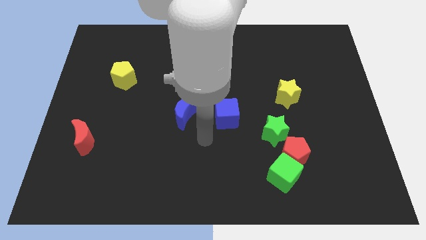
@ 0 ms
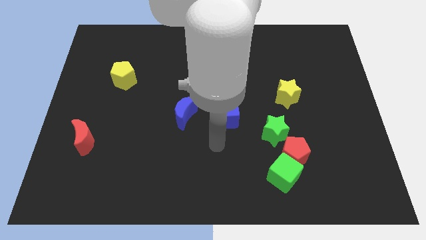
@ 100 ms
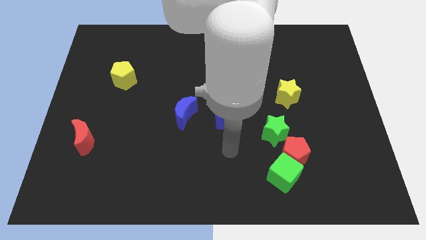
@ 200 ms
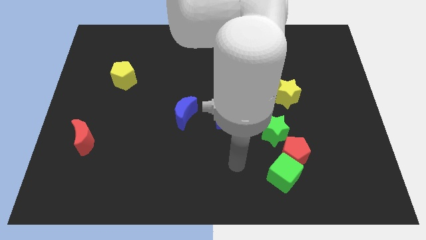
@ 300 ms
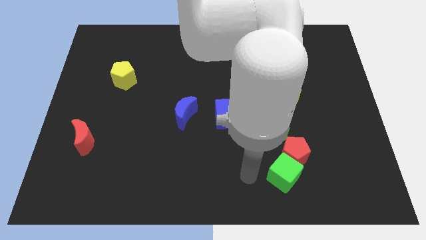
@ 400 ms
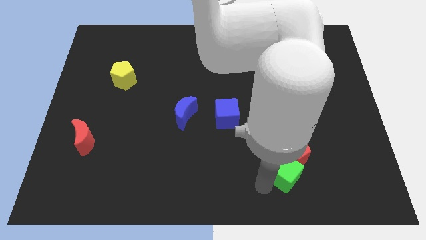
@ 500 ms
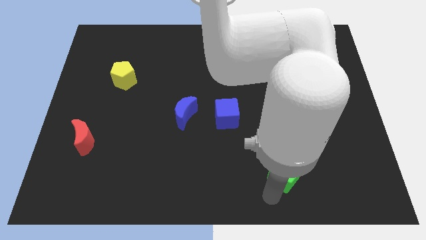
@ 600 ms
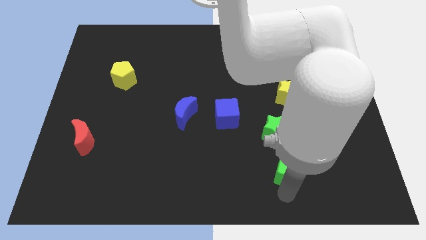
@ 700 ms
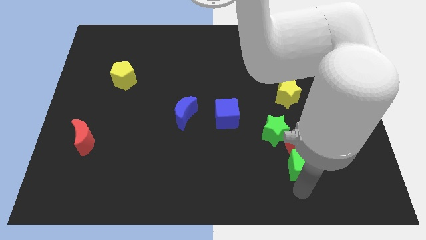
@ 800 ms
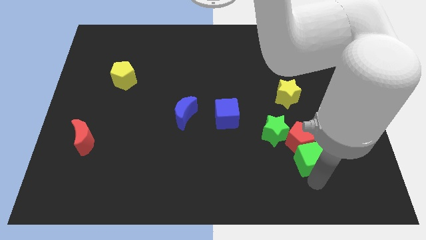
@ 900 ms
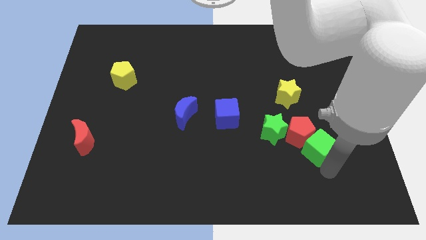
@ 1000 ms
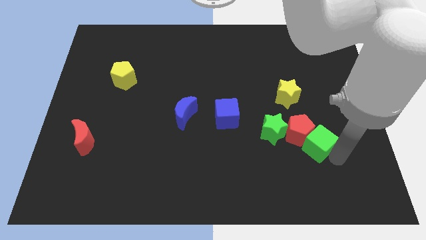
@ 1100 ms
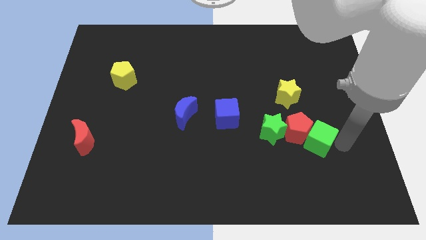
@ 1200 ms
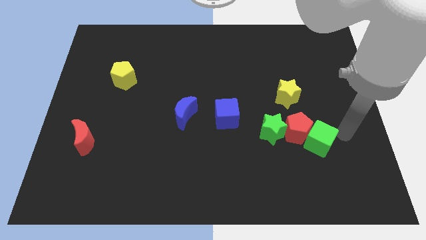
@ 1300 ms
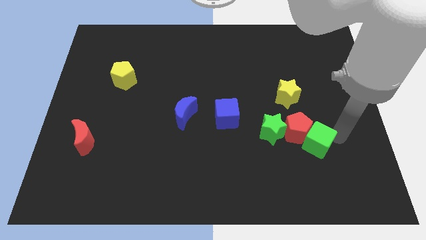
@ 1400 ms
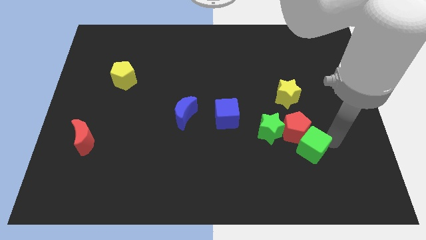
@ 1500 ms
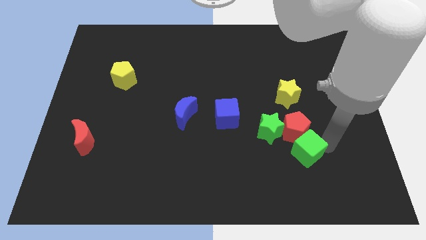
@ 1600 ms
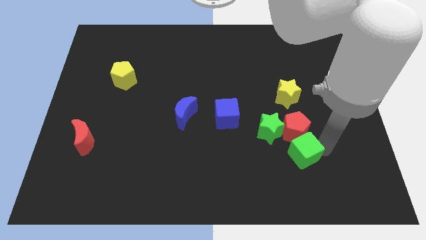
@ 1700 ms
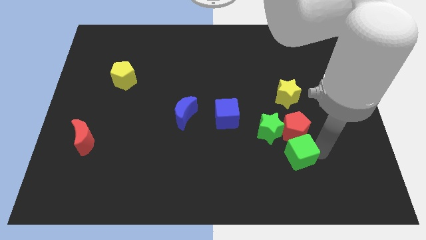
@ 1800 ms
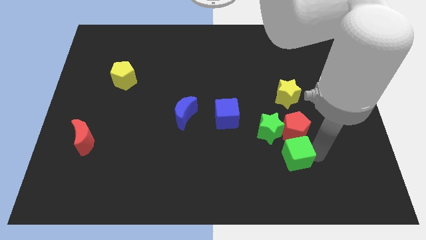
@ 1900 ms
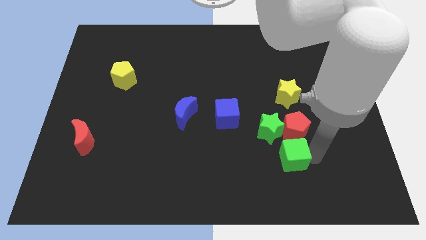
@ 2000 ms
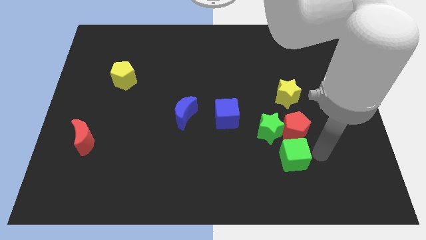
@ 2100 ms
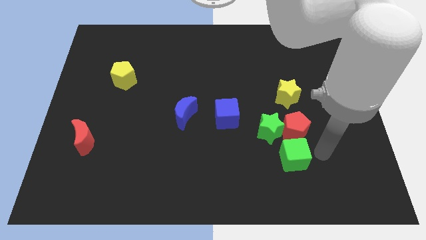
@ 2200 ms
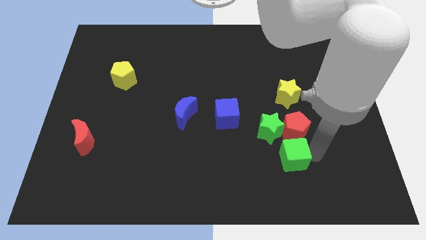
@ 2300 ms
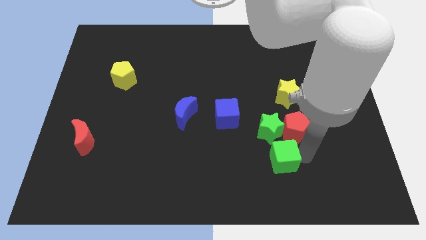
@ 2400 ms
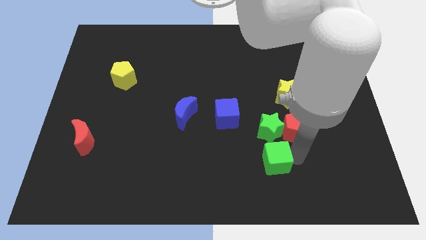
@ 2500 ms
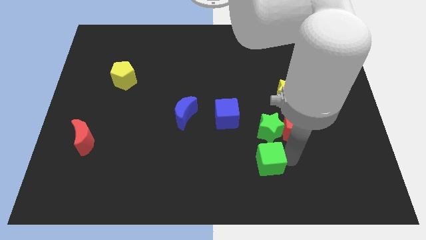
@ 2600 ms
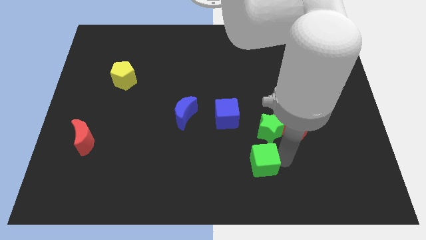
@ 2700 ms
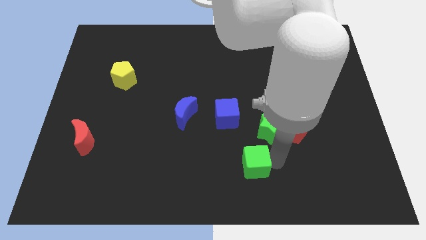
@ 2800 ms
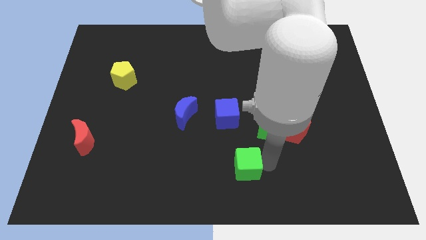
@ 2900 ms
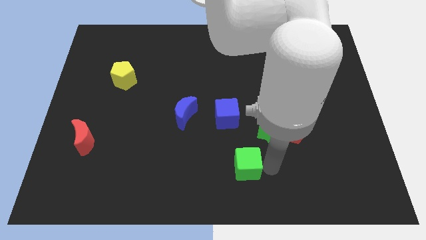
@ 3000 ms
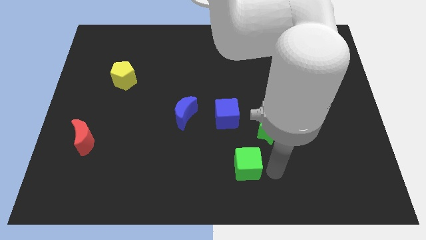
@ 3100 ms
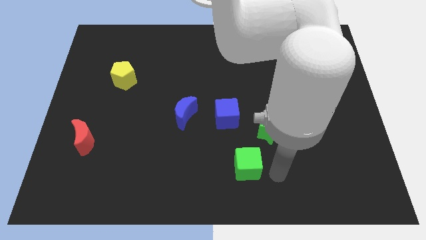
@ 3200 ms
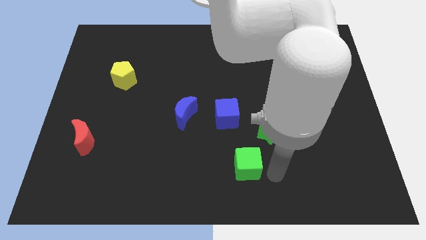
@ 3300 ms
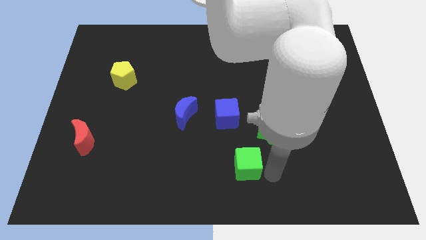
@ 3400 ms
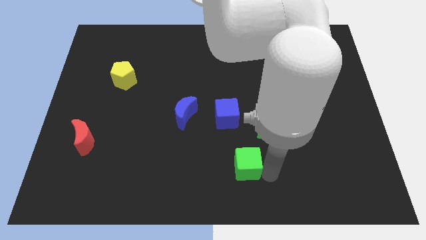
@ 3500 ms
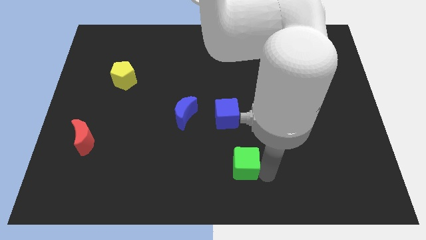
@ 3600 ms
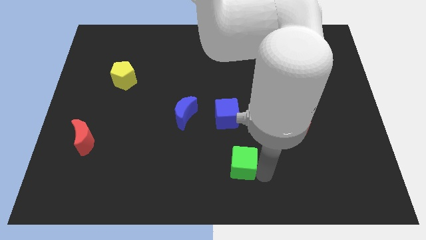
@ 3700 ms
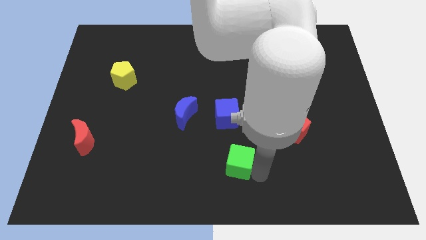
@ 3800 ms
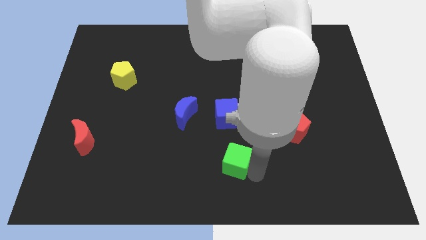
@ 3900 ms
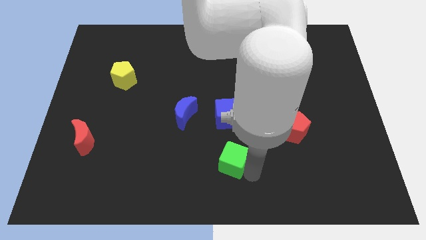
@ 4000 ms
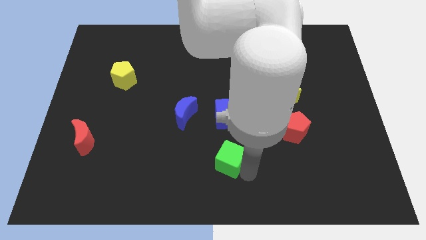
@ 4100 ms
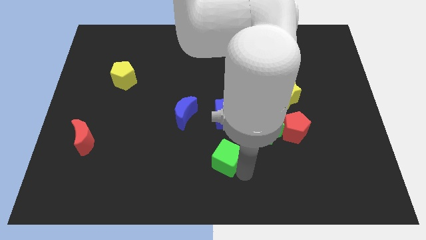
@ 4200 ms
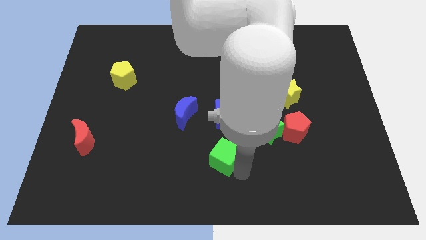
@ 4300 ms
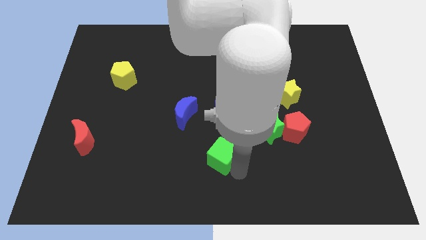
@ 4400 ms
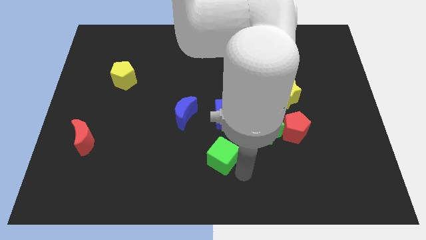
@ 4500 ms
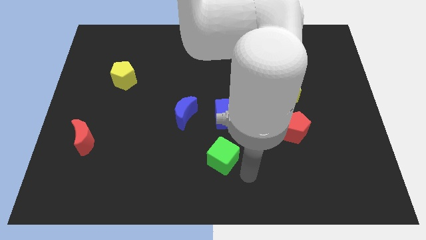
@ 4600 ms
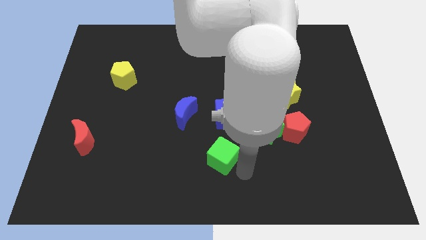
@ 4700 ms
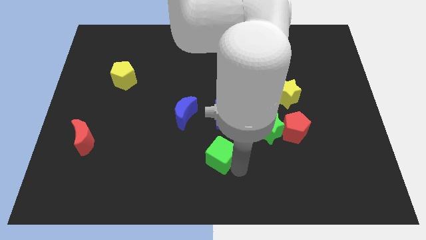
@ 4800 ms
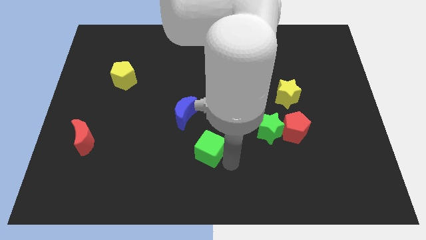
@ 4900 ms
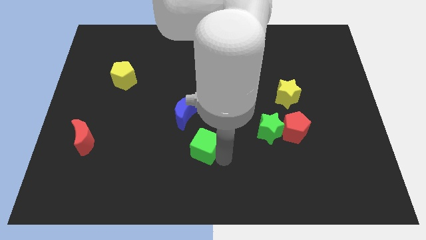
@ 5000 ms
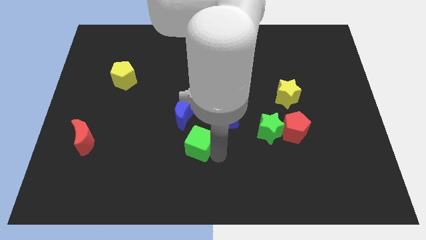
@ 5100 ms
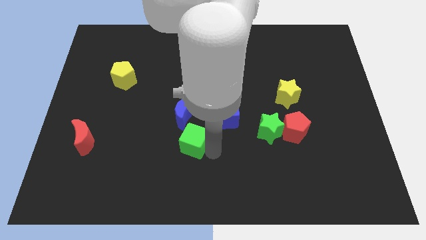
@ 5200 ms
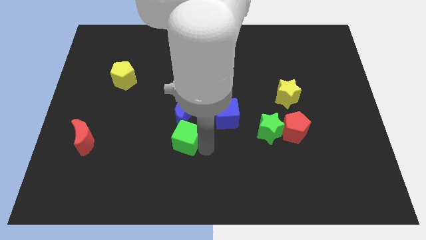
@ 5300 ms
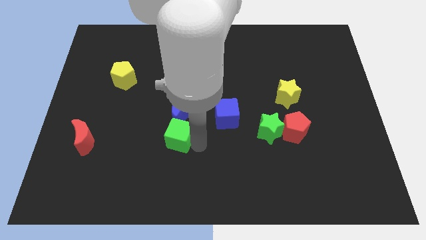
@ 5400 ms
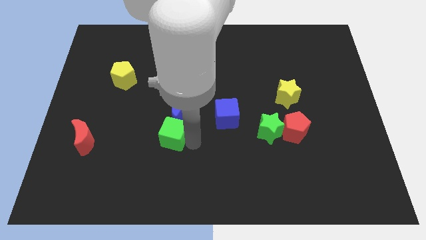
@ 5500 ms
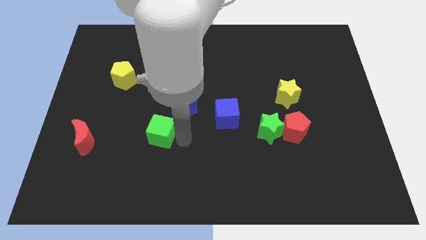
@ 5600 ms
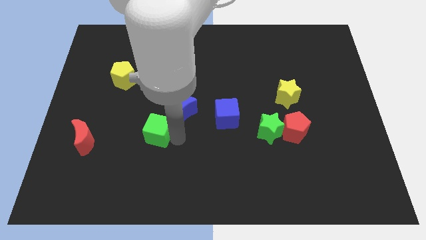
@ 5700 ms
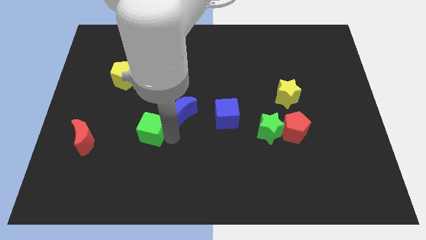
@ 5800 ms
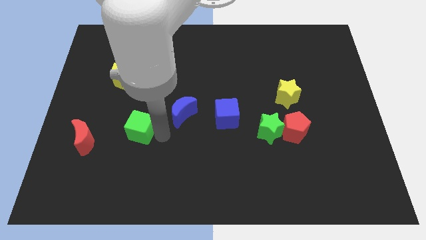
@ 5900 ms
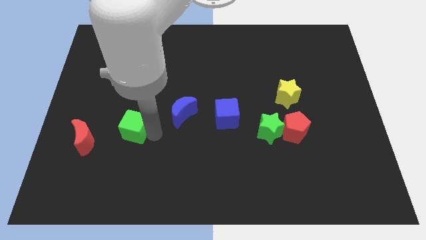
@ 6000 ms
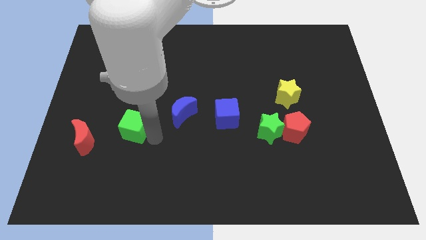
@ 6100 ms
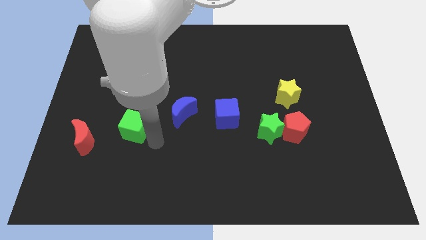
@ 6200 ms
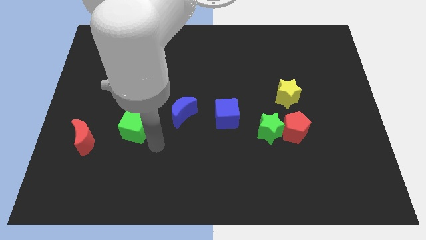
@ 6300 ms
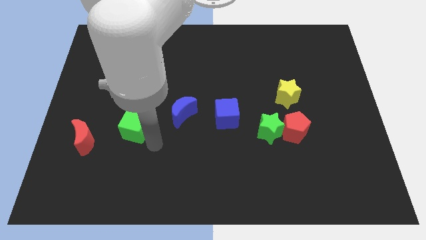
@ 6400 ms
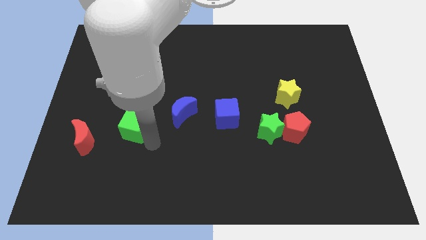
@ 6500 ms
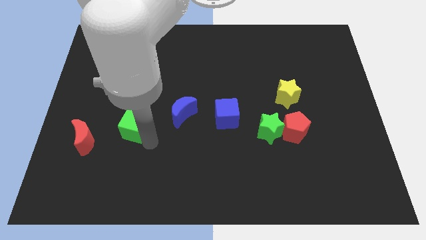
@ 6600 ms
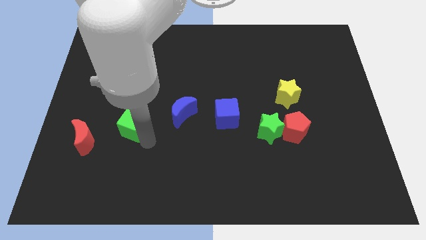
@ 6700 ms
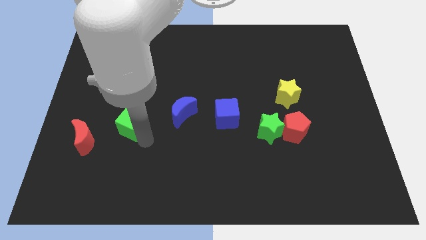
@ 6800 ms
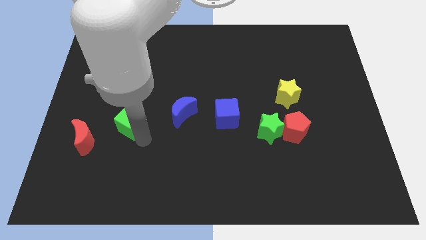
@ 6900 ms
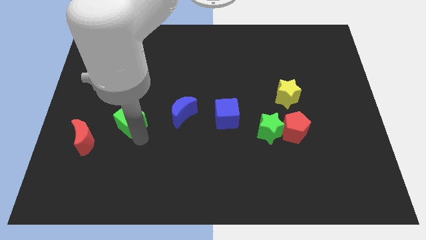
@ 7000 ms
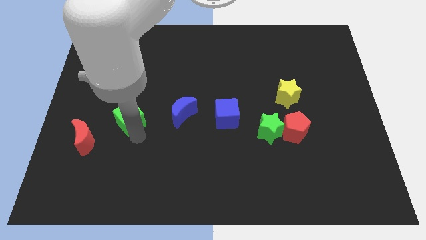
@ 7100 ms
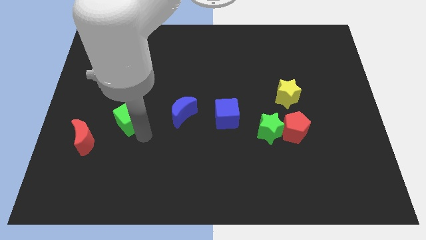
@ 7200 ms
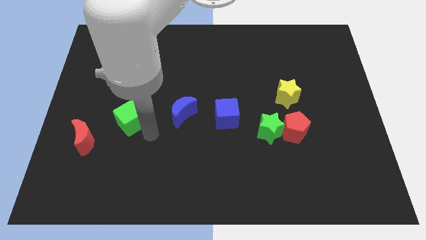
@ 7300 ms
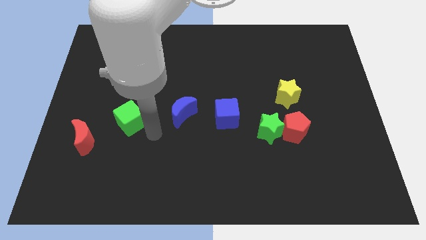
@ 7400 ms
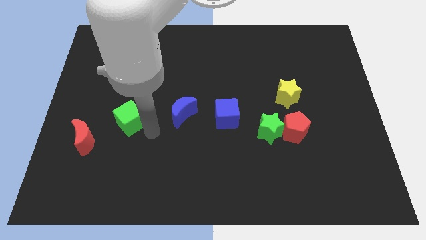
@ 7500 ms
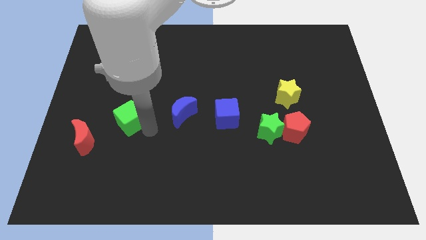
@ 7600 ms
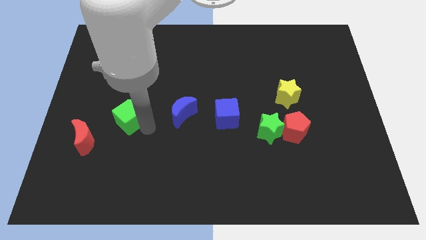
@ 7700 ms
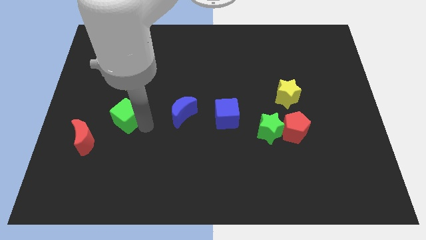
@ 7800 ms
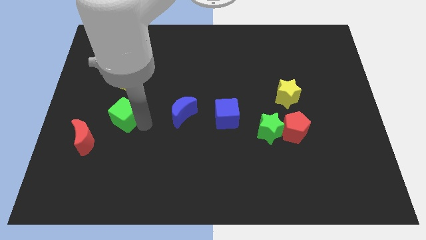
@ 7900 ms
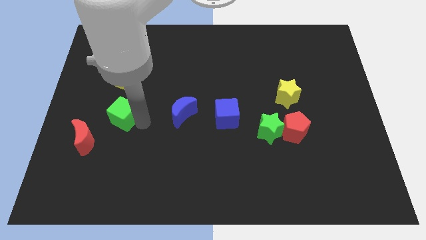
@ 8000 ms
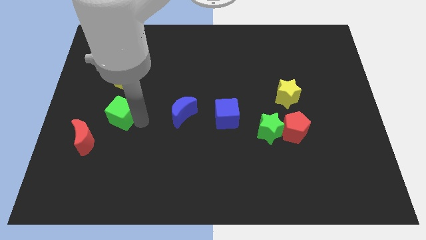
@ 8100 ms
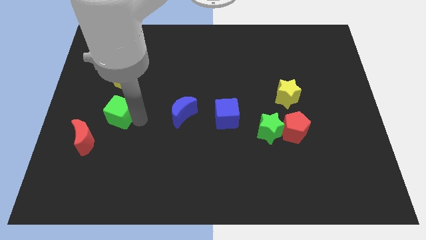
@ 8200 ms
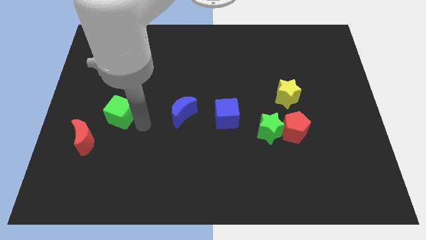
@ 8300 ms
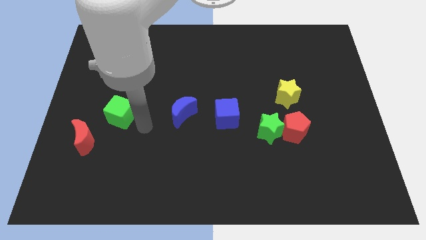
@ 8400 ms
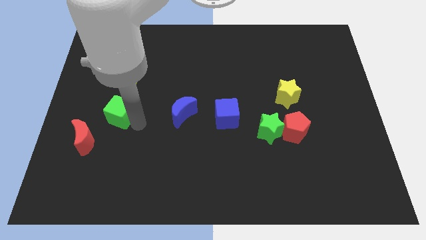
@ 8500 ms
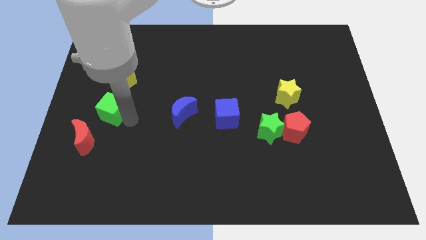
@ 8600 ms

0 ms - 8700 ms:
push the green cube above the red moon
